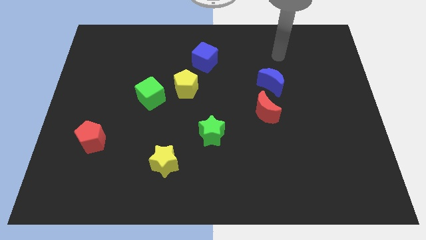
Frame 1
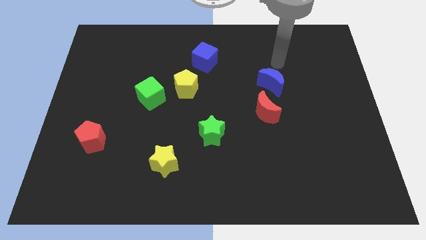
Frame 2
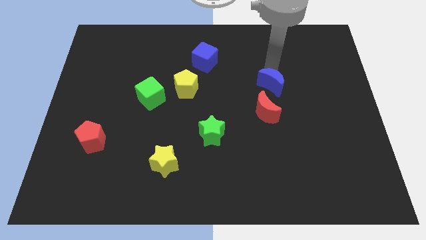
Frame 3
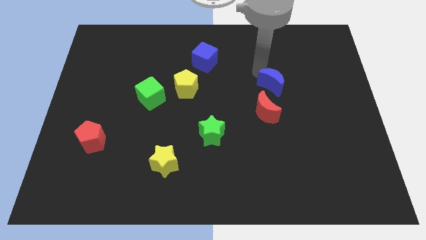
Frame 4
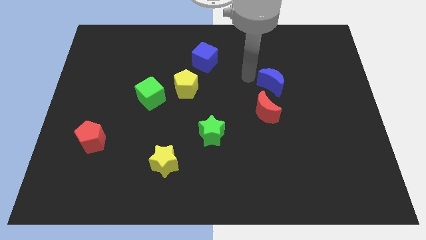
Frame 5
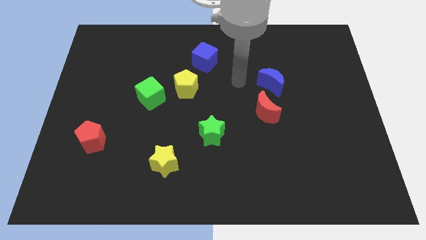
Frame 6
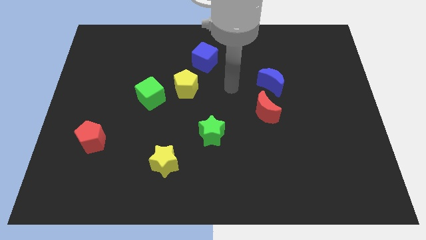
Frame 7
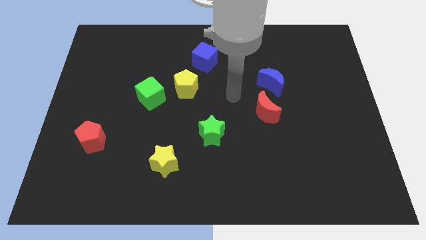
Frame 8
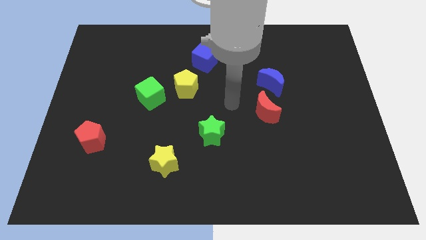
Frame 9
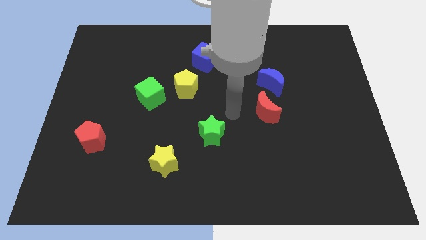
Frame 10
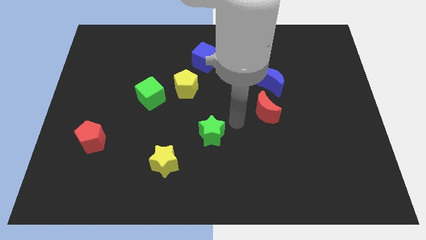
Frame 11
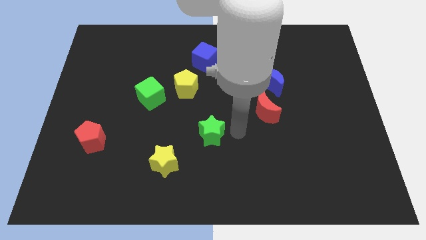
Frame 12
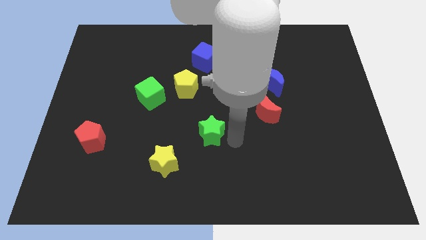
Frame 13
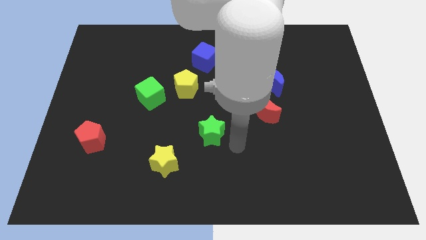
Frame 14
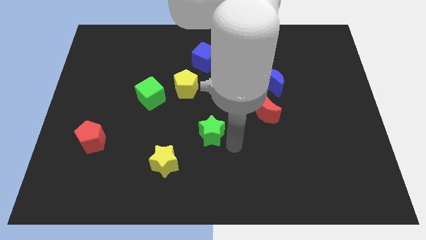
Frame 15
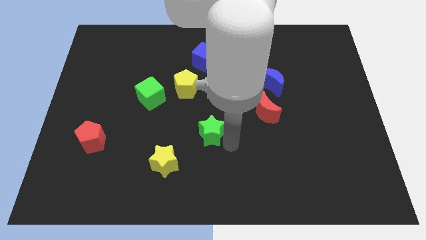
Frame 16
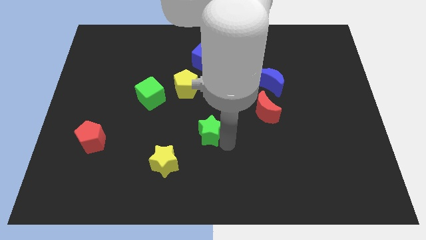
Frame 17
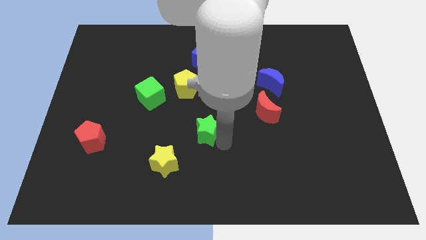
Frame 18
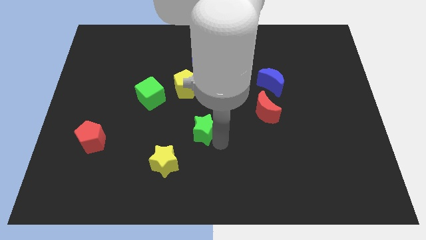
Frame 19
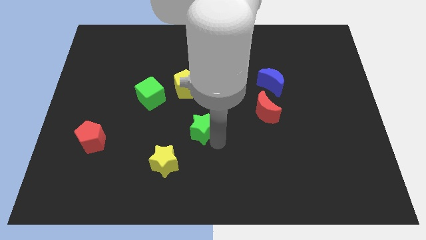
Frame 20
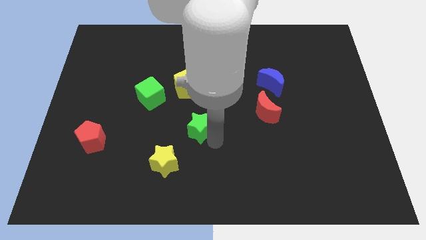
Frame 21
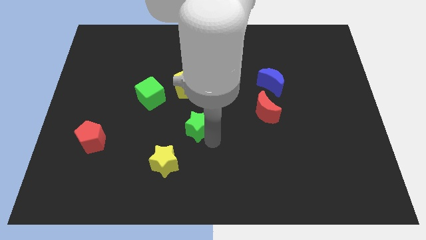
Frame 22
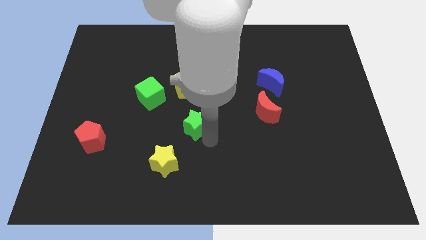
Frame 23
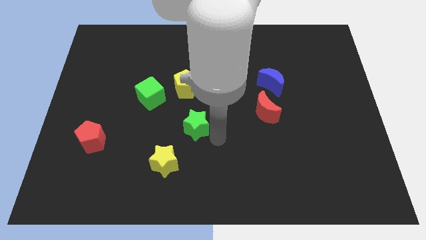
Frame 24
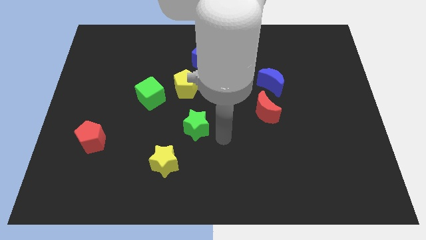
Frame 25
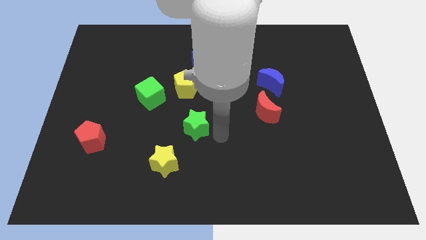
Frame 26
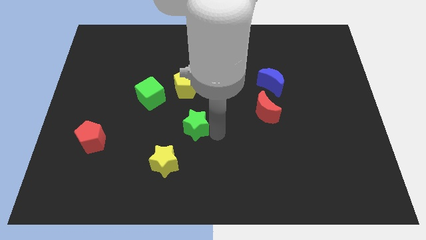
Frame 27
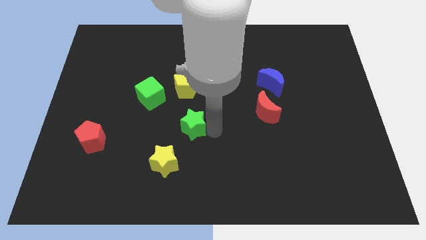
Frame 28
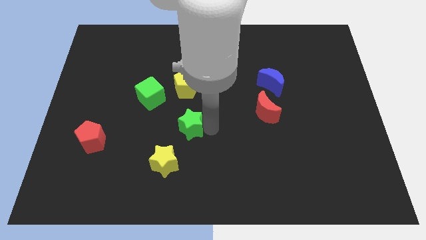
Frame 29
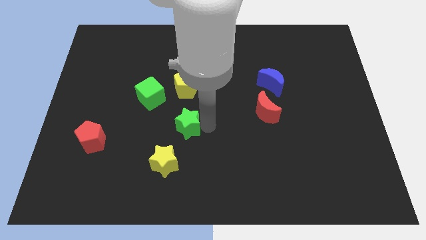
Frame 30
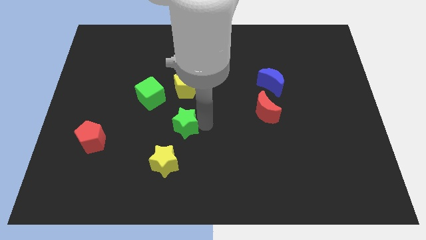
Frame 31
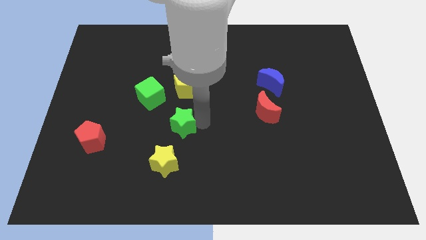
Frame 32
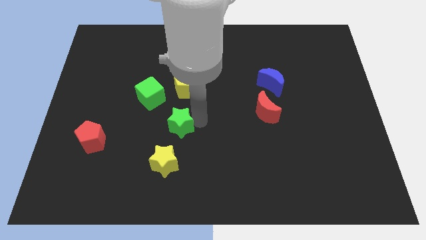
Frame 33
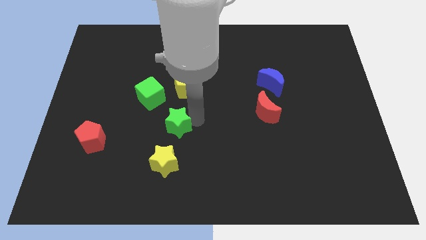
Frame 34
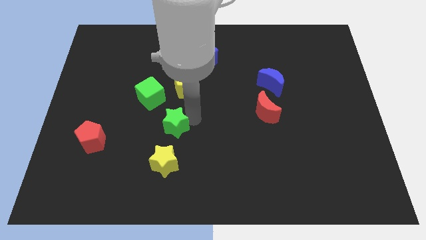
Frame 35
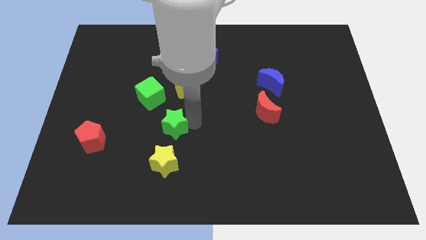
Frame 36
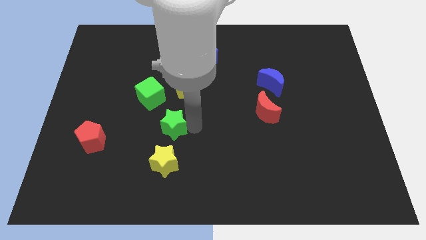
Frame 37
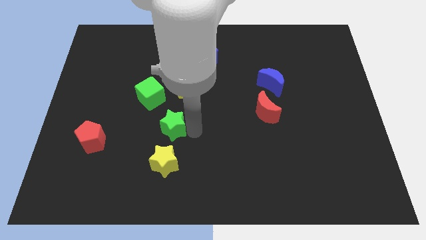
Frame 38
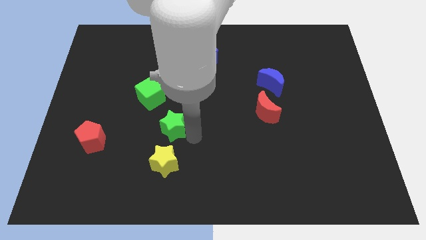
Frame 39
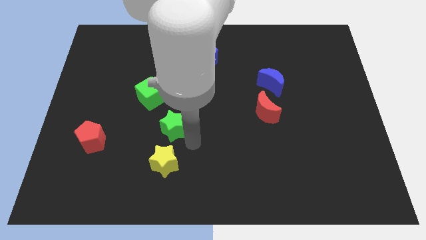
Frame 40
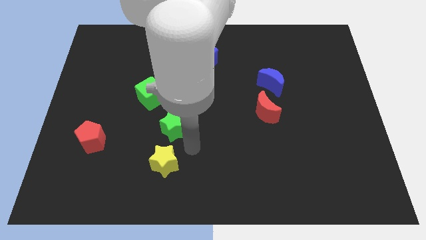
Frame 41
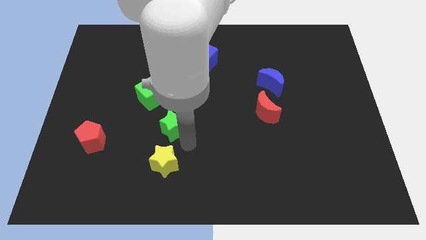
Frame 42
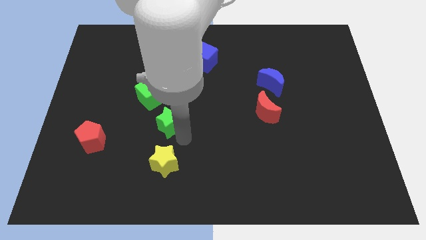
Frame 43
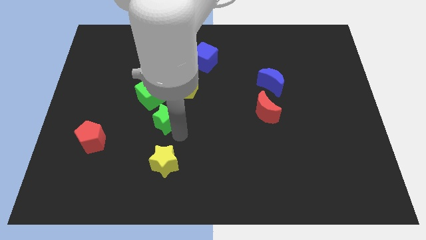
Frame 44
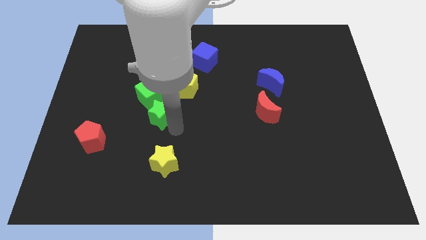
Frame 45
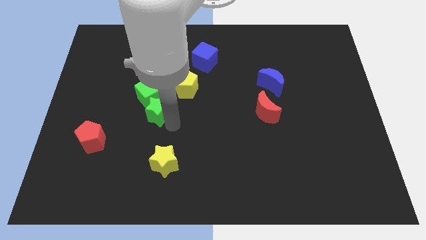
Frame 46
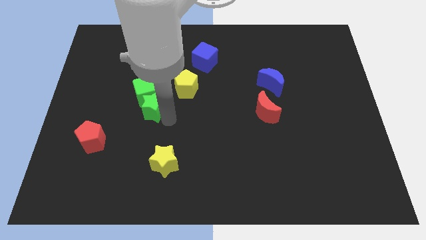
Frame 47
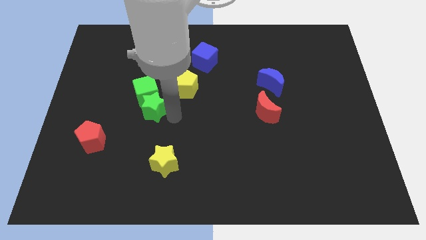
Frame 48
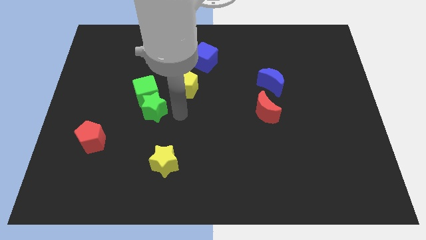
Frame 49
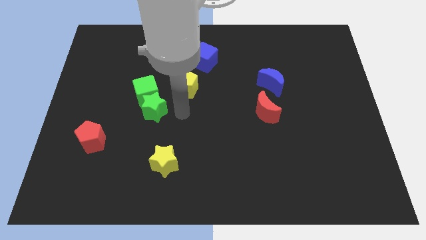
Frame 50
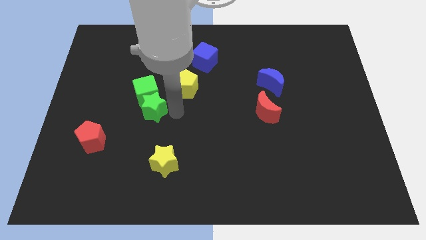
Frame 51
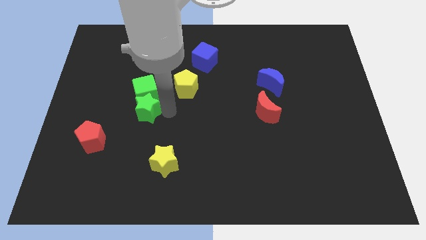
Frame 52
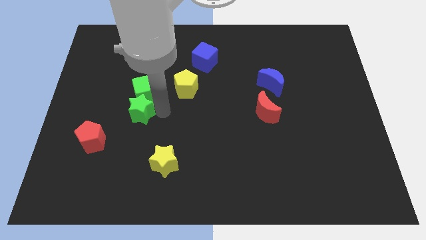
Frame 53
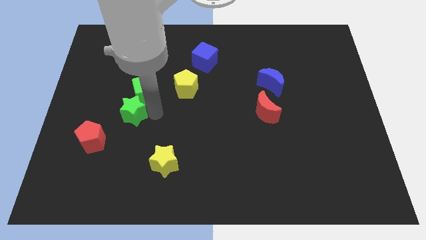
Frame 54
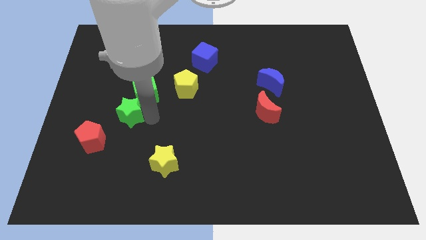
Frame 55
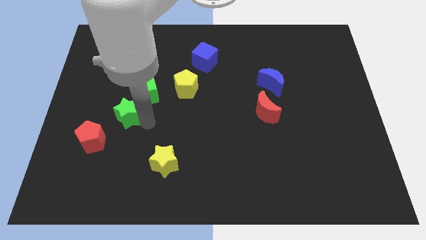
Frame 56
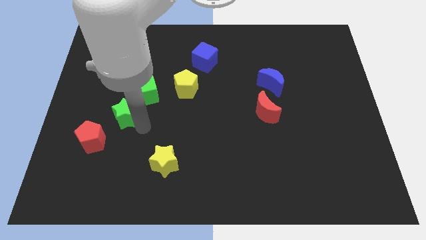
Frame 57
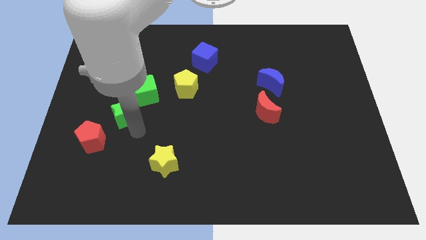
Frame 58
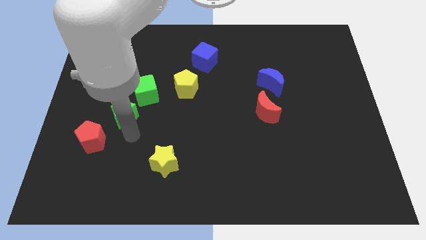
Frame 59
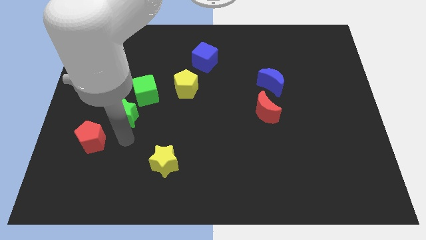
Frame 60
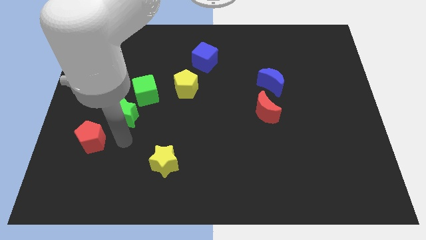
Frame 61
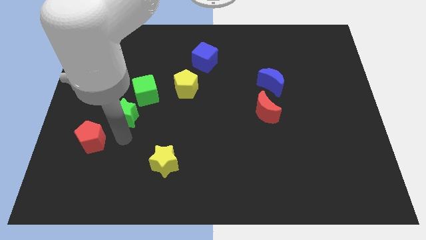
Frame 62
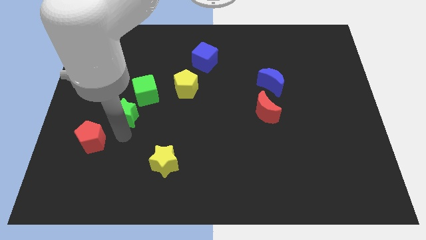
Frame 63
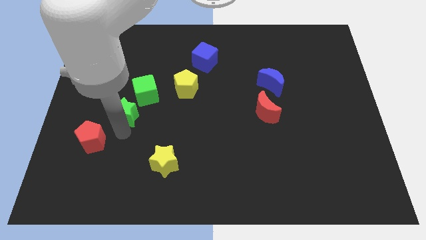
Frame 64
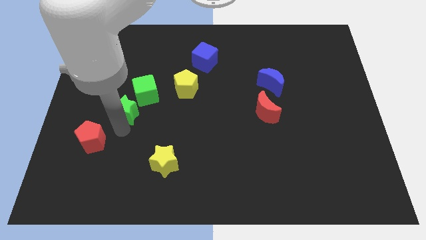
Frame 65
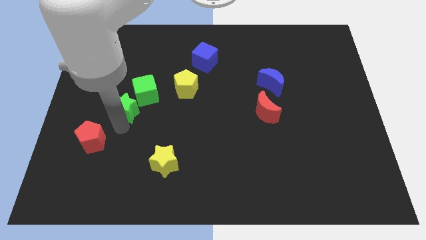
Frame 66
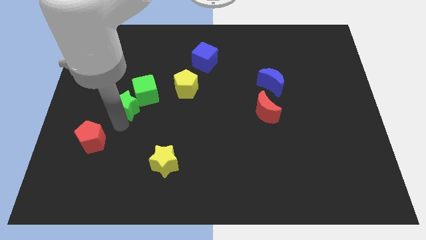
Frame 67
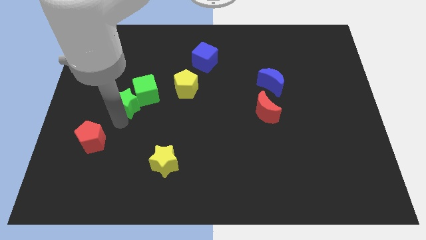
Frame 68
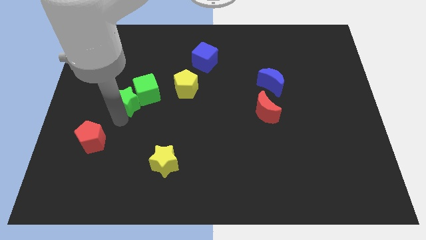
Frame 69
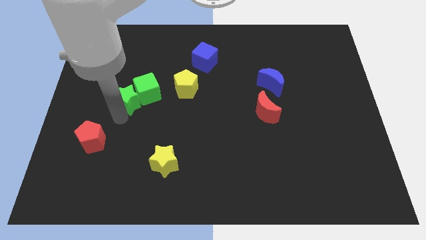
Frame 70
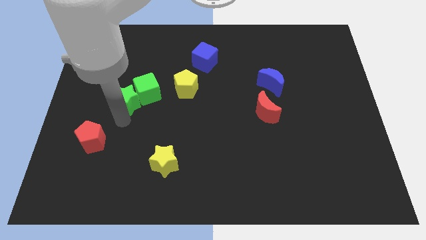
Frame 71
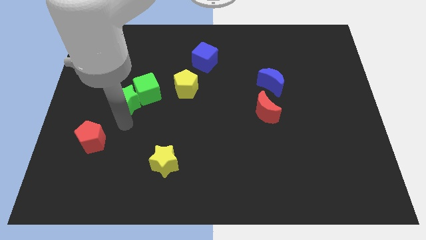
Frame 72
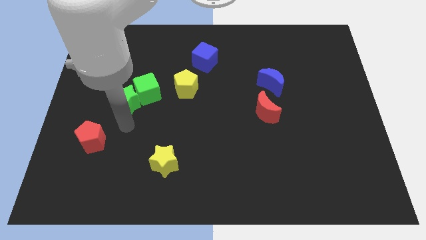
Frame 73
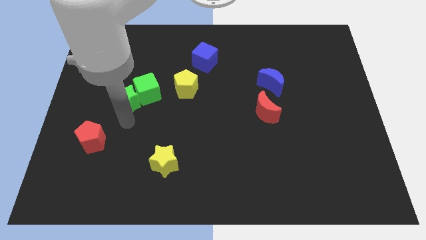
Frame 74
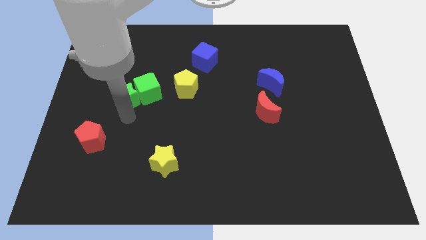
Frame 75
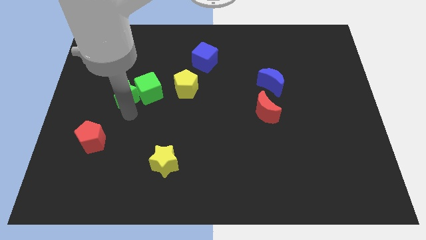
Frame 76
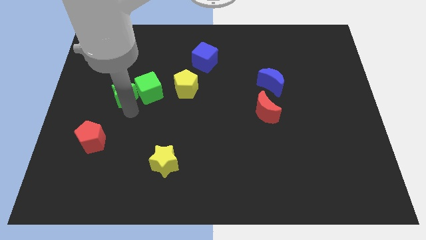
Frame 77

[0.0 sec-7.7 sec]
push the green star up and to the left

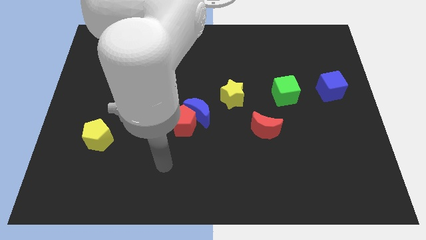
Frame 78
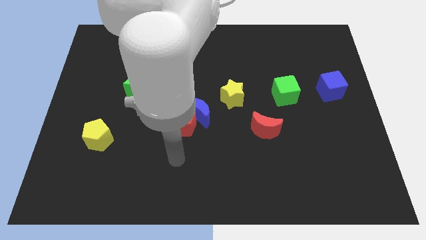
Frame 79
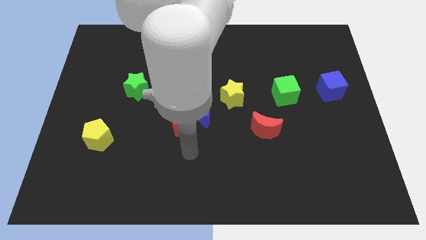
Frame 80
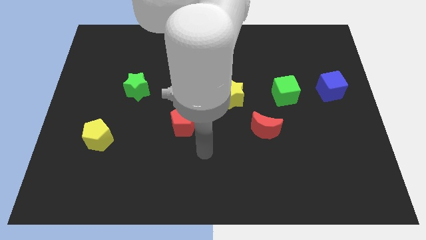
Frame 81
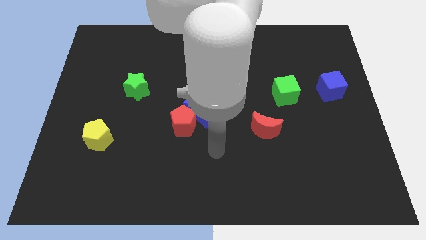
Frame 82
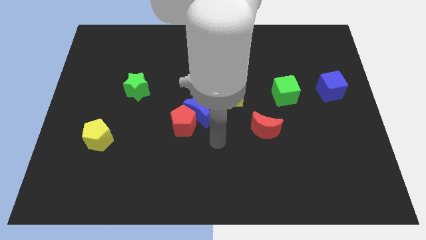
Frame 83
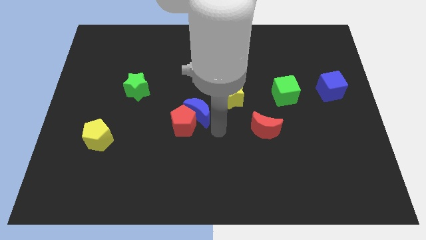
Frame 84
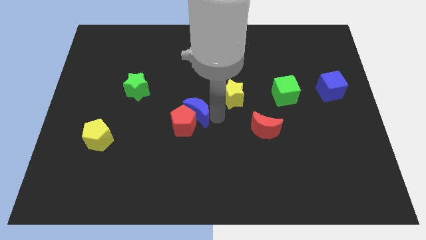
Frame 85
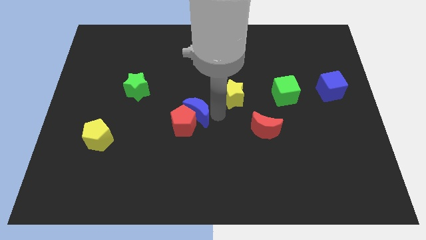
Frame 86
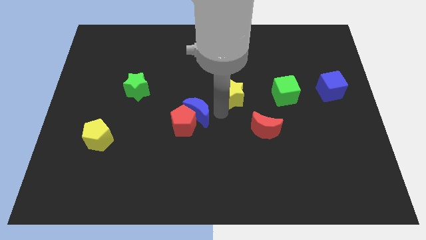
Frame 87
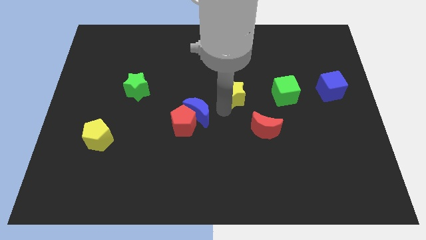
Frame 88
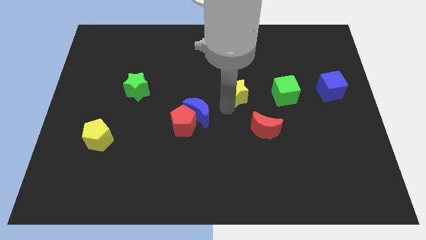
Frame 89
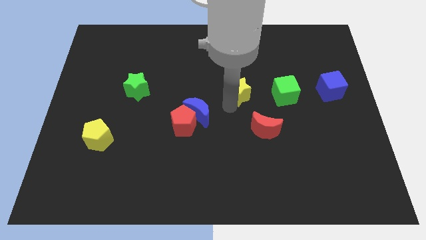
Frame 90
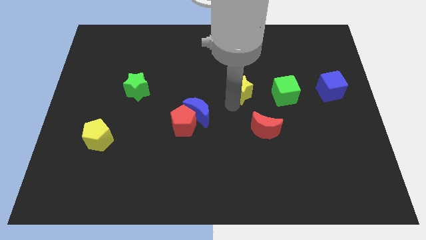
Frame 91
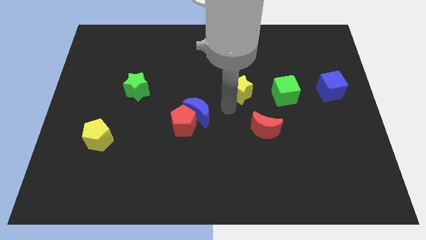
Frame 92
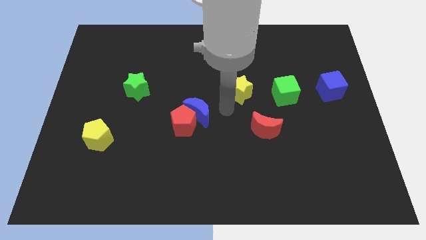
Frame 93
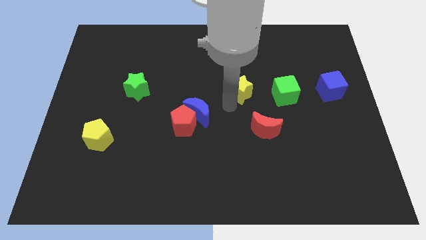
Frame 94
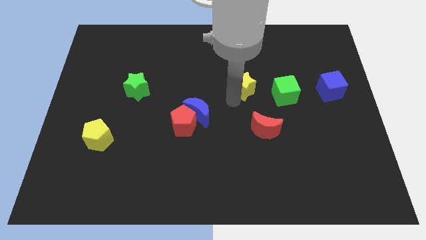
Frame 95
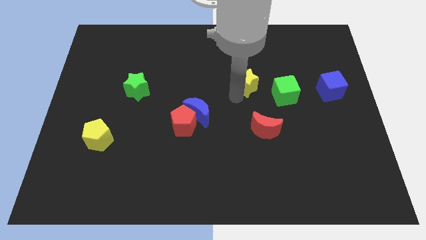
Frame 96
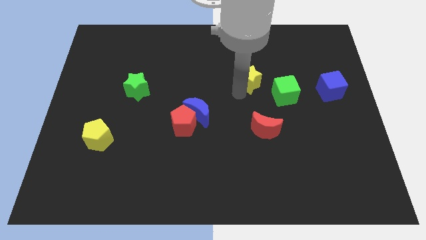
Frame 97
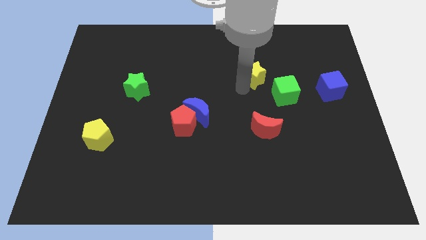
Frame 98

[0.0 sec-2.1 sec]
slightly push the yellow star diagonally up and right
